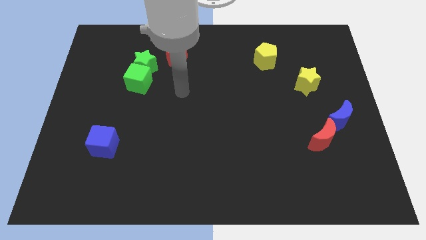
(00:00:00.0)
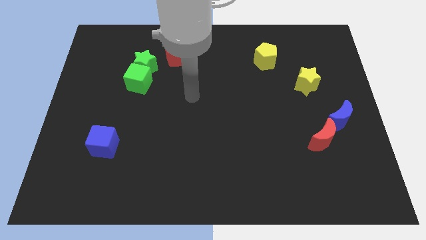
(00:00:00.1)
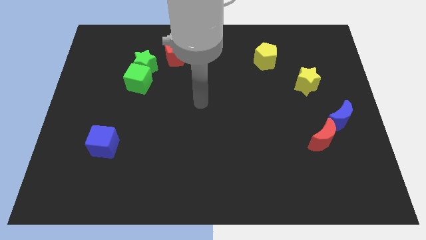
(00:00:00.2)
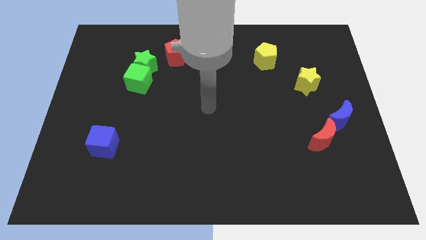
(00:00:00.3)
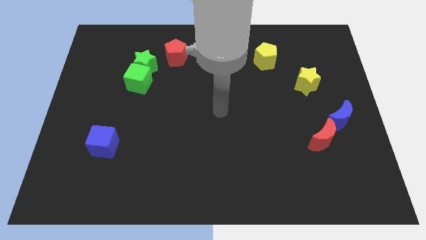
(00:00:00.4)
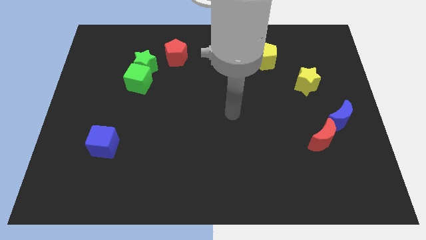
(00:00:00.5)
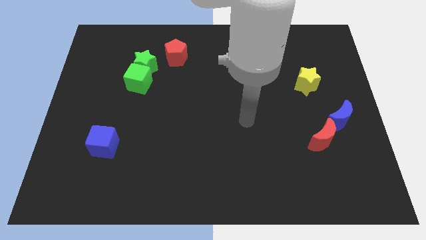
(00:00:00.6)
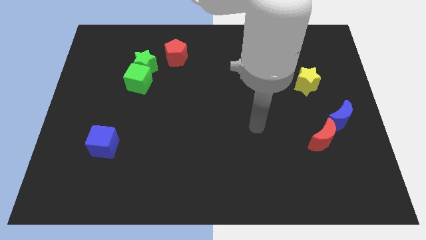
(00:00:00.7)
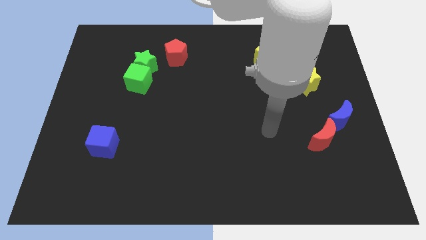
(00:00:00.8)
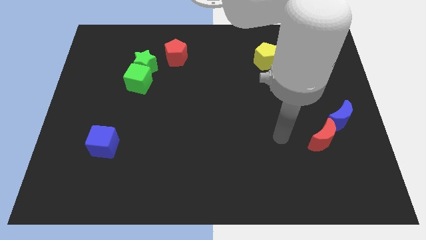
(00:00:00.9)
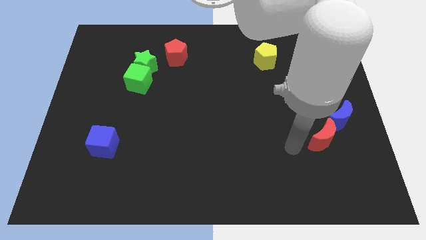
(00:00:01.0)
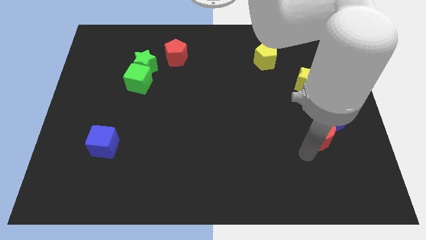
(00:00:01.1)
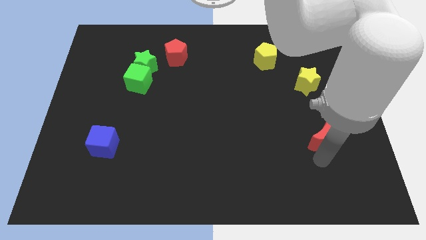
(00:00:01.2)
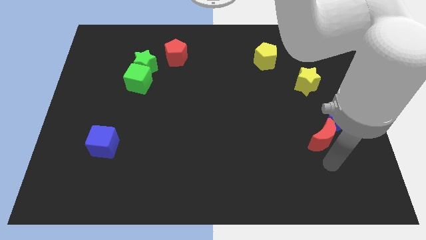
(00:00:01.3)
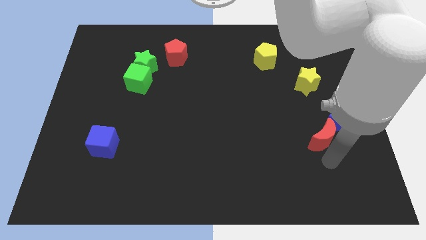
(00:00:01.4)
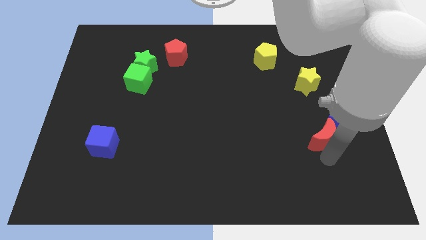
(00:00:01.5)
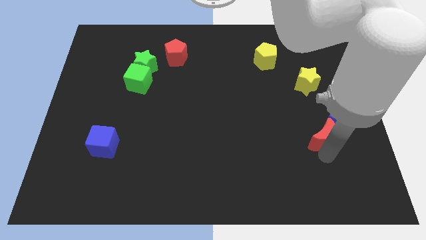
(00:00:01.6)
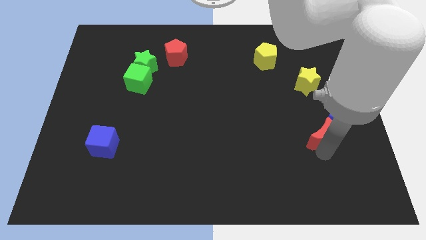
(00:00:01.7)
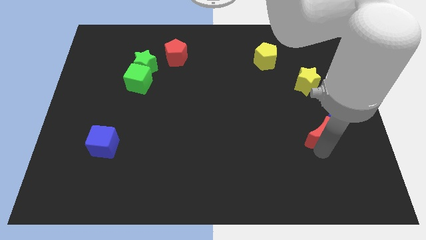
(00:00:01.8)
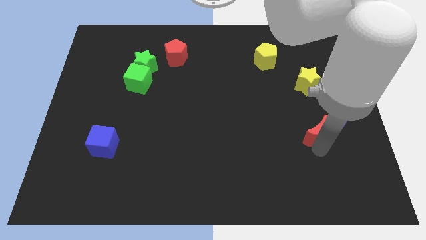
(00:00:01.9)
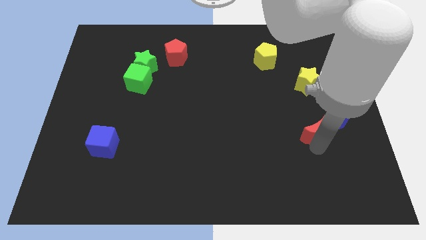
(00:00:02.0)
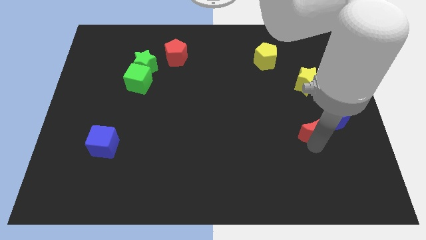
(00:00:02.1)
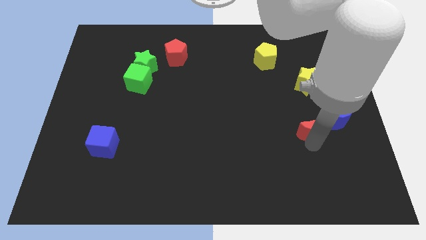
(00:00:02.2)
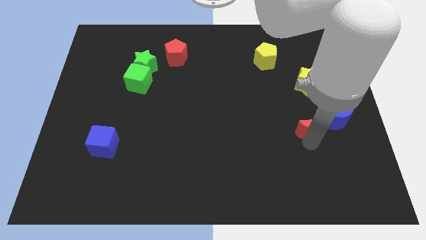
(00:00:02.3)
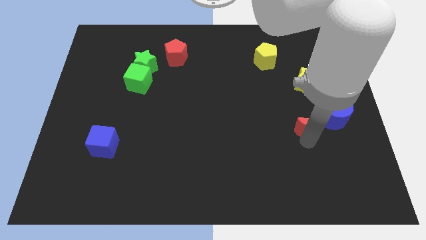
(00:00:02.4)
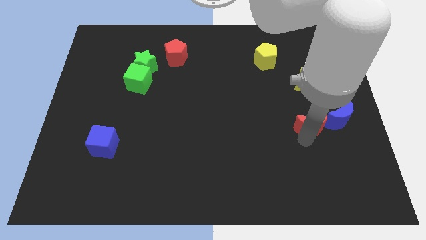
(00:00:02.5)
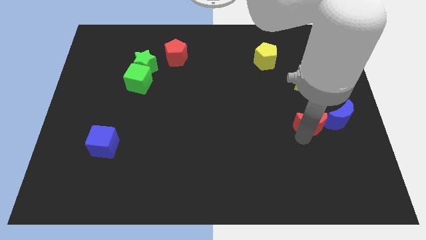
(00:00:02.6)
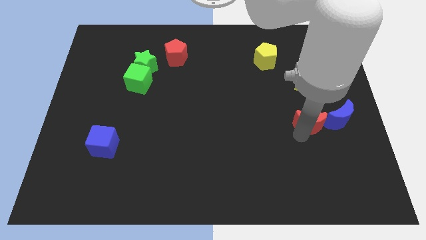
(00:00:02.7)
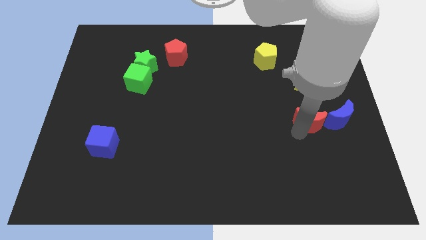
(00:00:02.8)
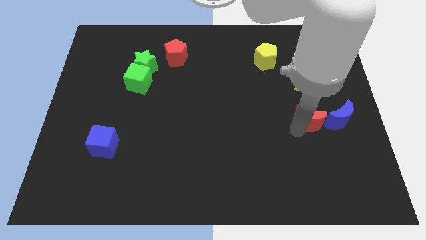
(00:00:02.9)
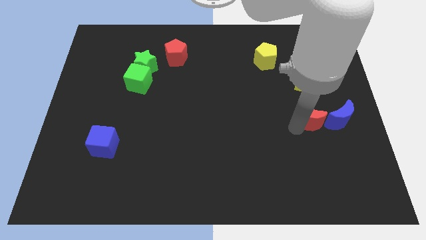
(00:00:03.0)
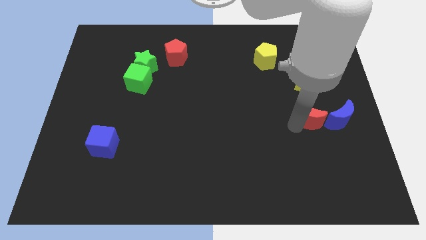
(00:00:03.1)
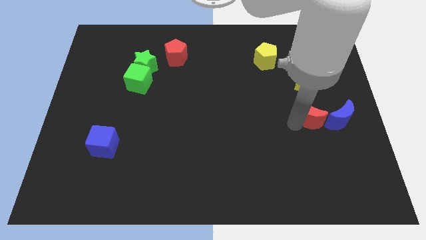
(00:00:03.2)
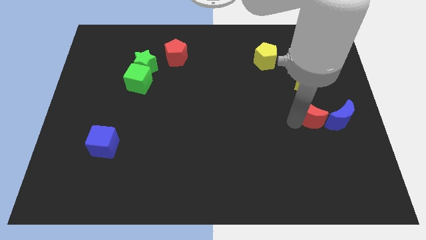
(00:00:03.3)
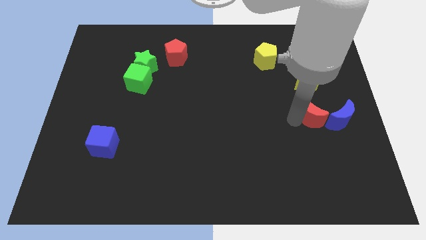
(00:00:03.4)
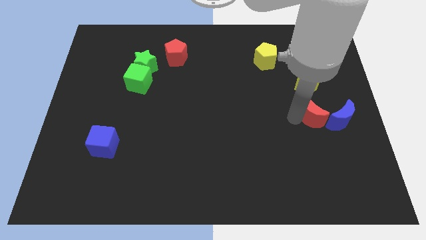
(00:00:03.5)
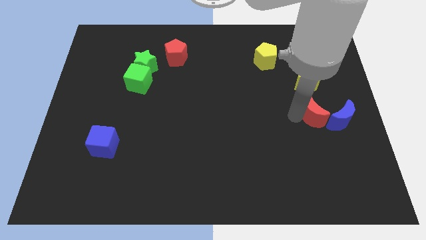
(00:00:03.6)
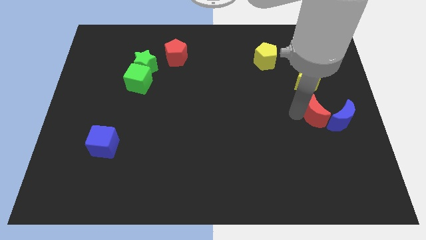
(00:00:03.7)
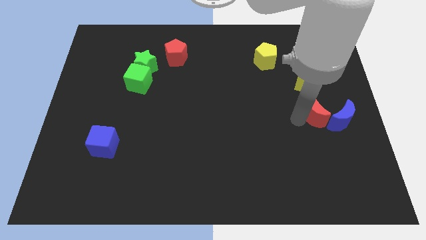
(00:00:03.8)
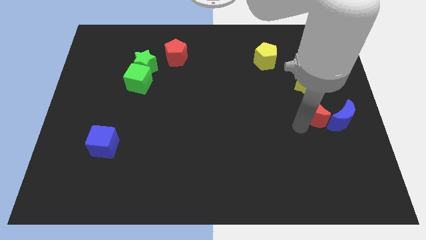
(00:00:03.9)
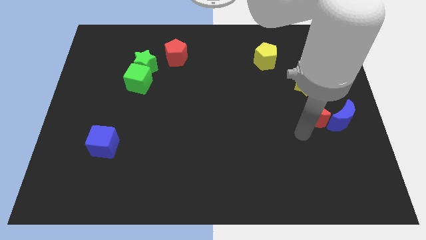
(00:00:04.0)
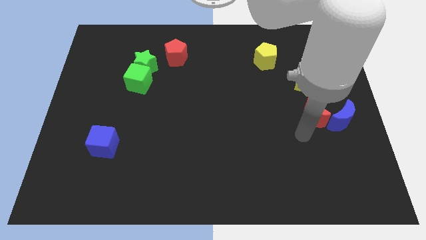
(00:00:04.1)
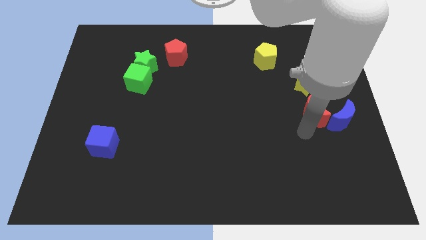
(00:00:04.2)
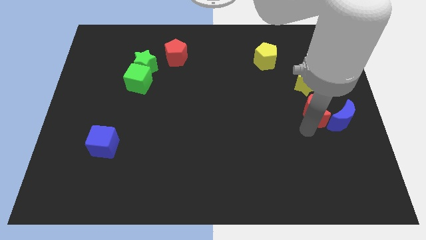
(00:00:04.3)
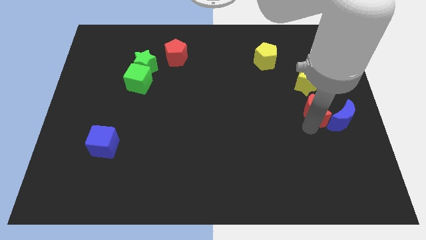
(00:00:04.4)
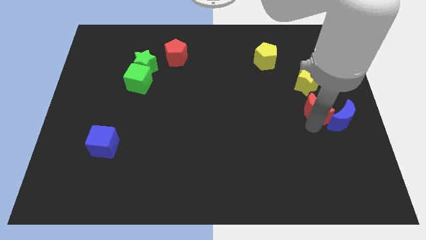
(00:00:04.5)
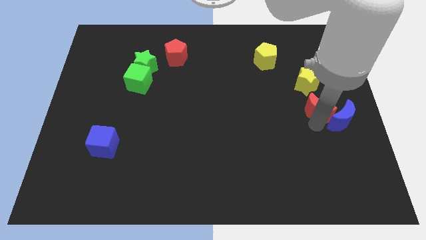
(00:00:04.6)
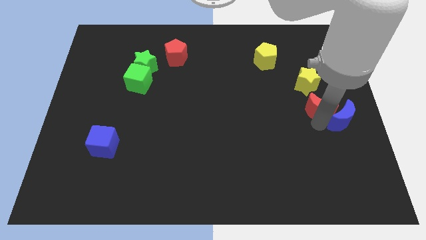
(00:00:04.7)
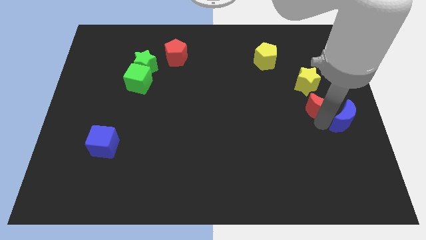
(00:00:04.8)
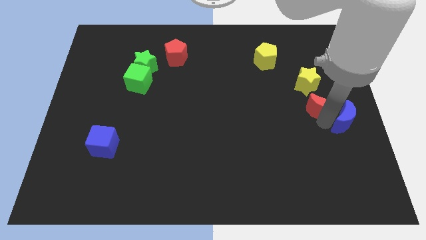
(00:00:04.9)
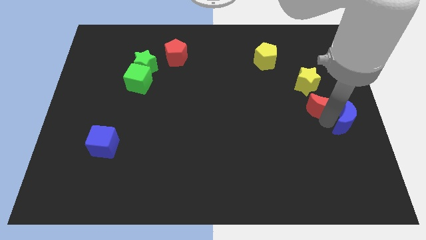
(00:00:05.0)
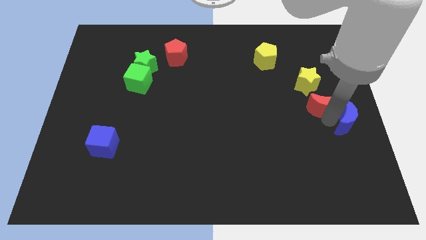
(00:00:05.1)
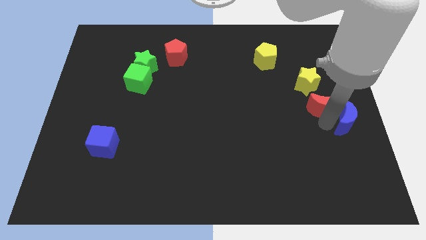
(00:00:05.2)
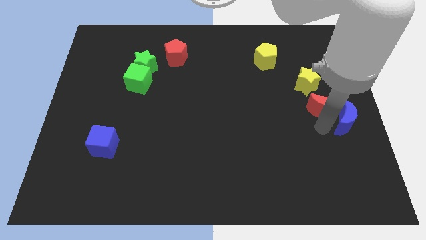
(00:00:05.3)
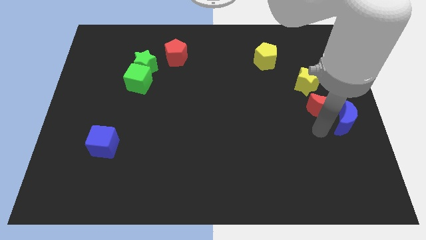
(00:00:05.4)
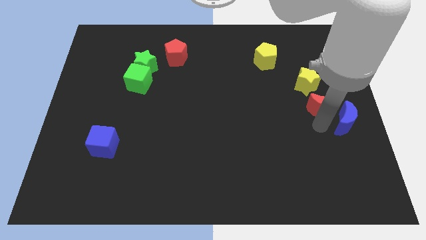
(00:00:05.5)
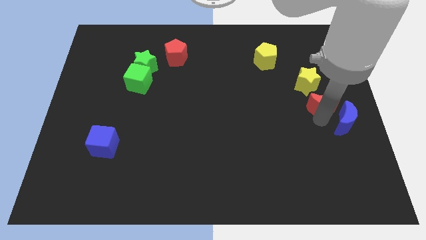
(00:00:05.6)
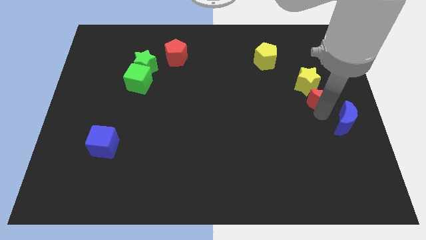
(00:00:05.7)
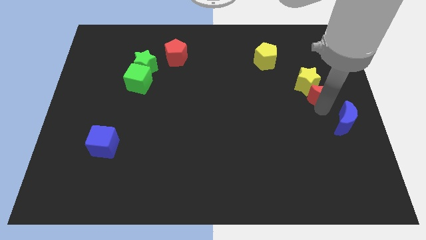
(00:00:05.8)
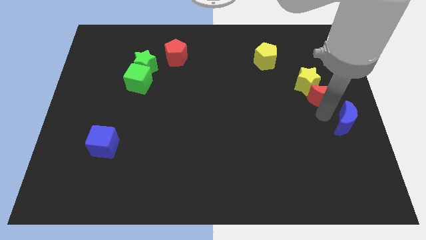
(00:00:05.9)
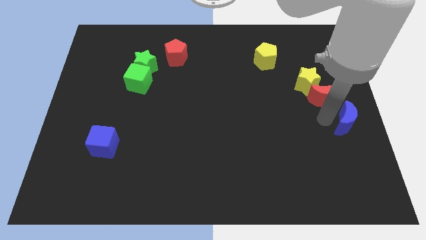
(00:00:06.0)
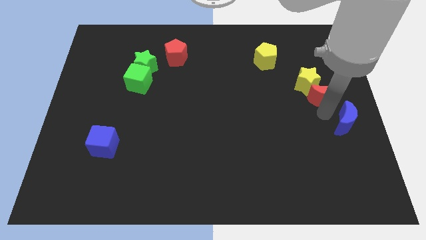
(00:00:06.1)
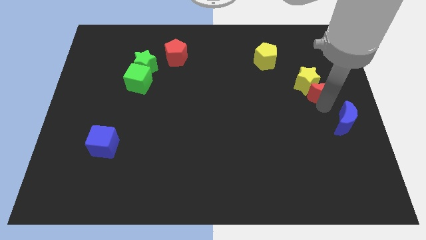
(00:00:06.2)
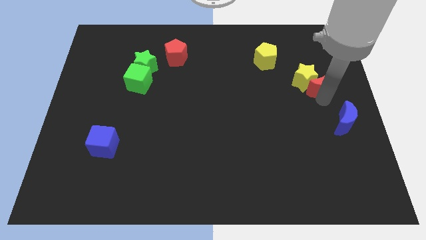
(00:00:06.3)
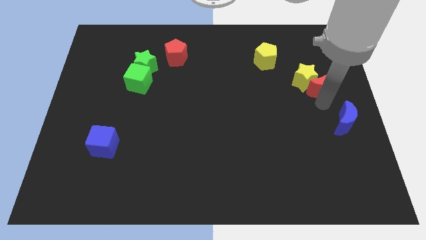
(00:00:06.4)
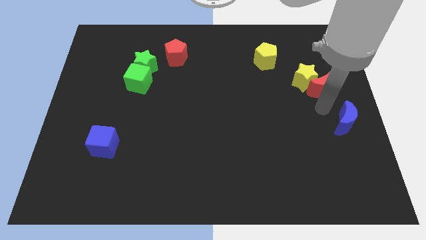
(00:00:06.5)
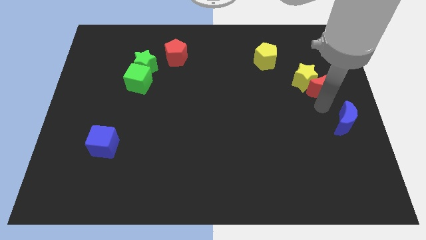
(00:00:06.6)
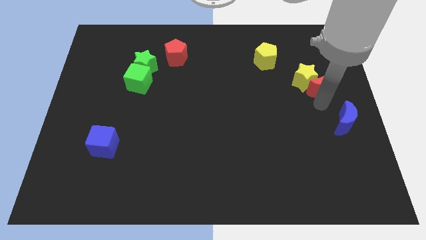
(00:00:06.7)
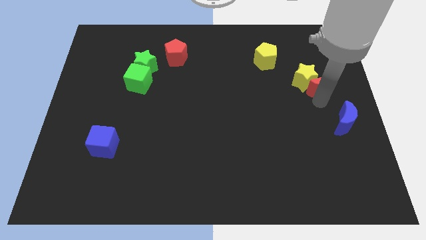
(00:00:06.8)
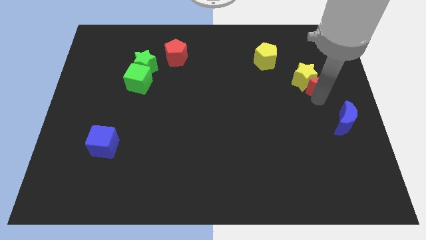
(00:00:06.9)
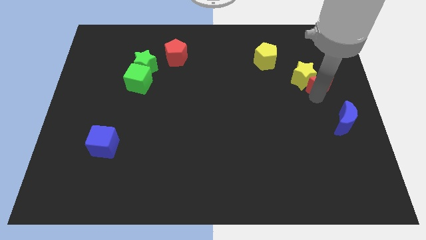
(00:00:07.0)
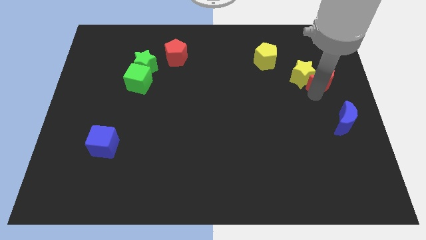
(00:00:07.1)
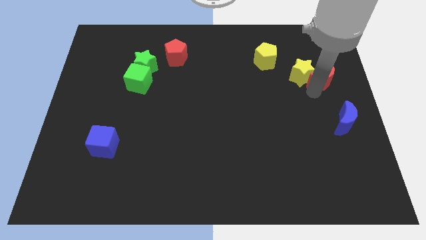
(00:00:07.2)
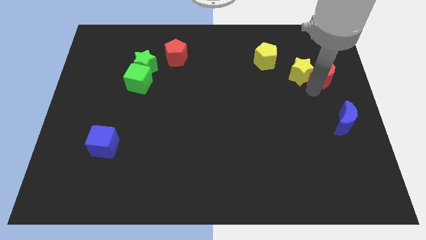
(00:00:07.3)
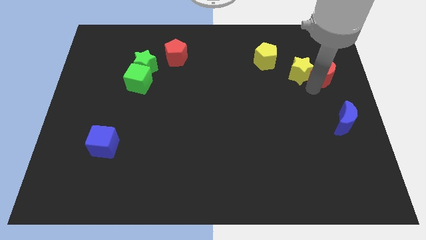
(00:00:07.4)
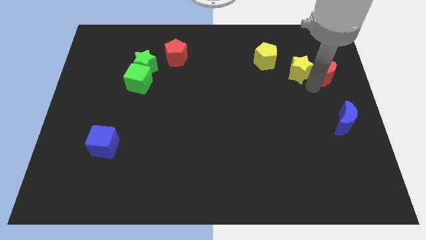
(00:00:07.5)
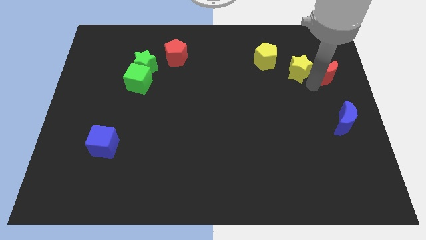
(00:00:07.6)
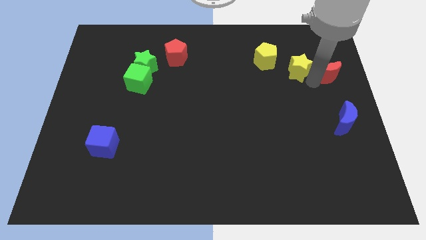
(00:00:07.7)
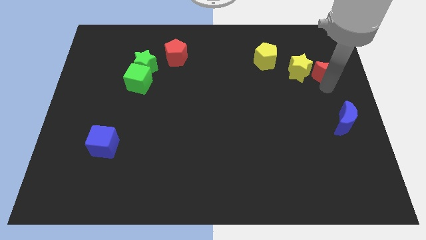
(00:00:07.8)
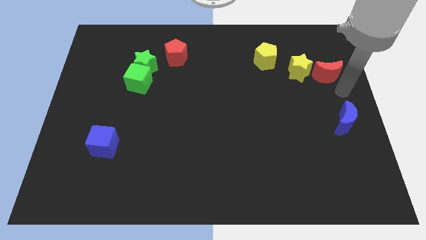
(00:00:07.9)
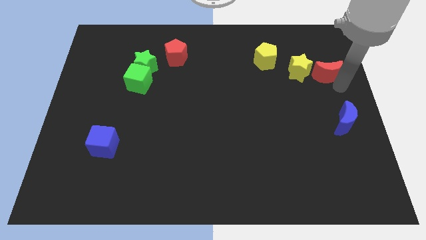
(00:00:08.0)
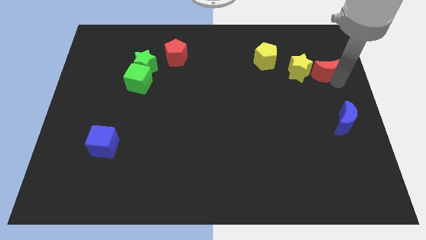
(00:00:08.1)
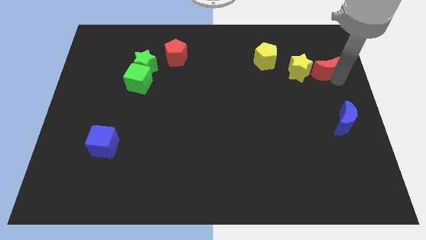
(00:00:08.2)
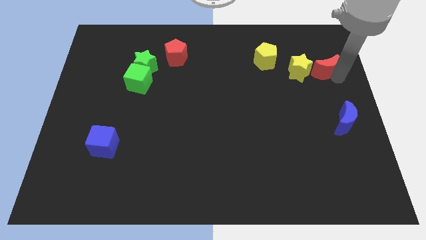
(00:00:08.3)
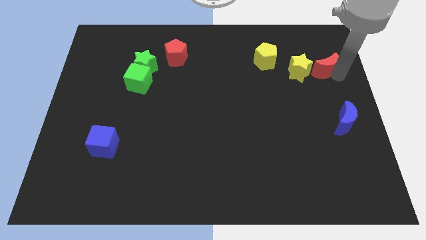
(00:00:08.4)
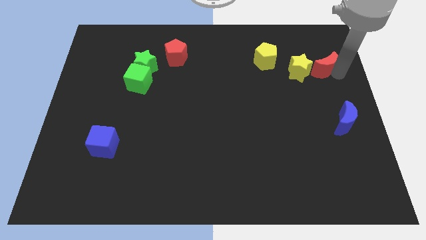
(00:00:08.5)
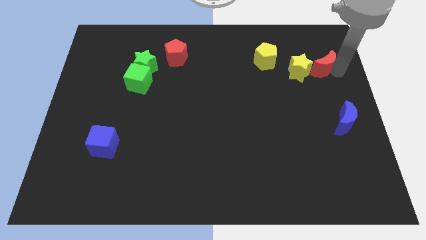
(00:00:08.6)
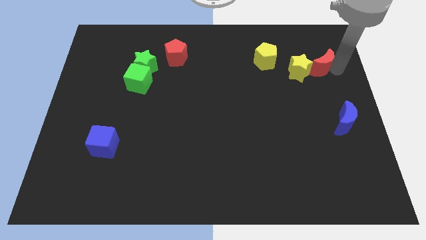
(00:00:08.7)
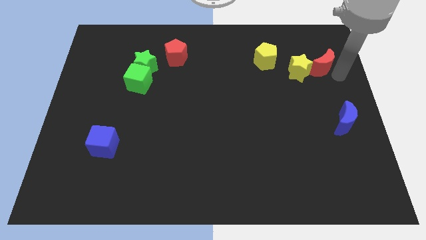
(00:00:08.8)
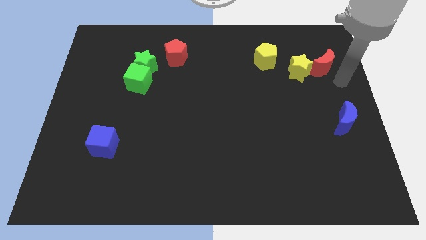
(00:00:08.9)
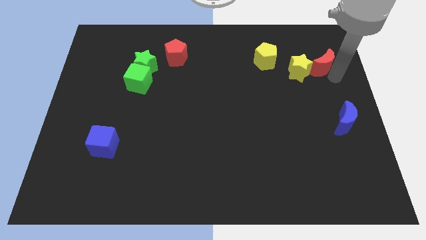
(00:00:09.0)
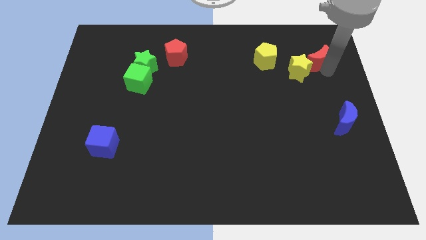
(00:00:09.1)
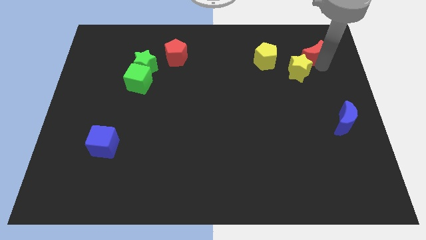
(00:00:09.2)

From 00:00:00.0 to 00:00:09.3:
move the red moon to the top side of the yellow star
